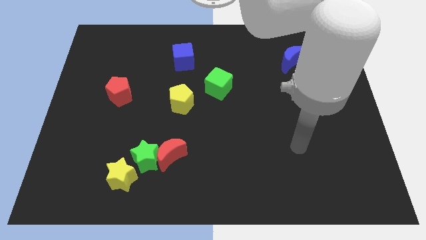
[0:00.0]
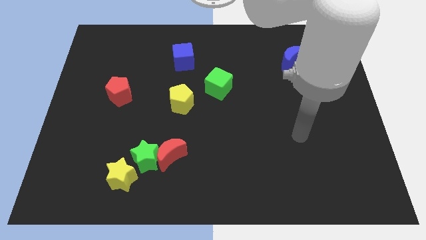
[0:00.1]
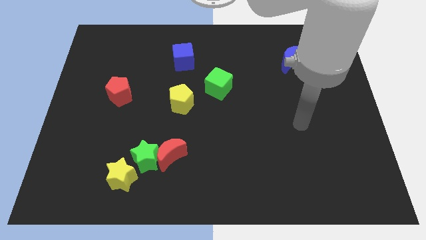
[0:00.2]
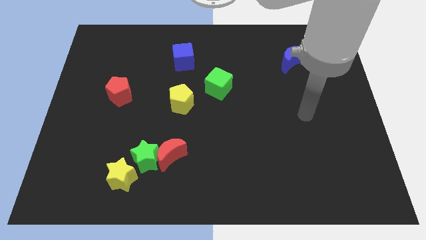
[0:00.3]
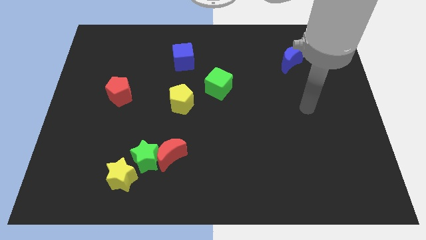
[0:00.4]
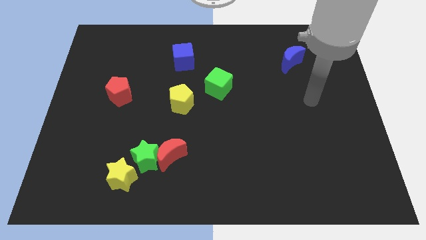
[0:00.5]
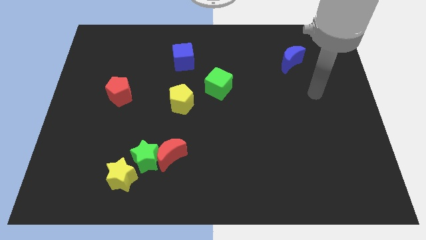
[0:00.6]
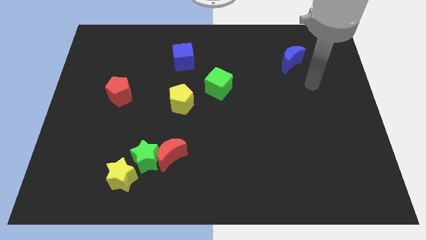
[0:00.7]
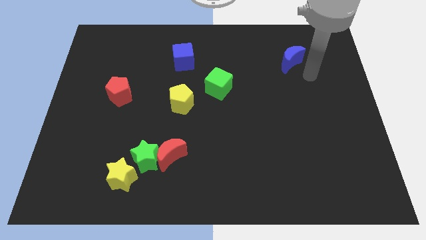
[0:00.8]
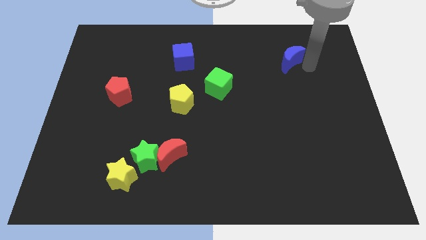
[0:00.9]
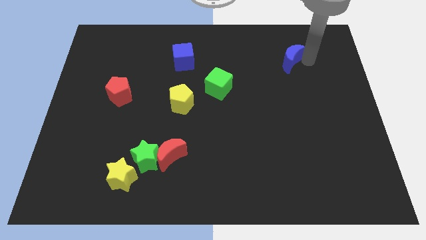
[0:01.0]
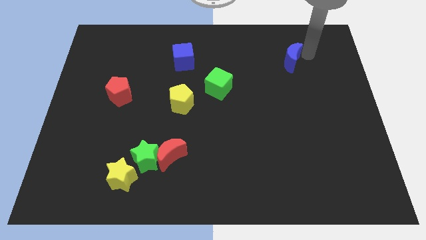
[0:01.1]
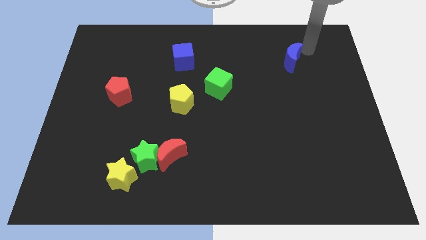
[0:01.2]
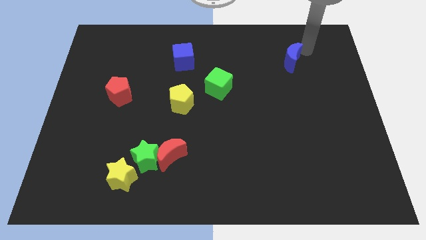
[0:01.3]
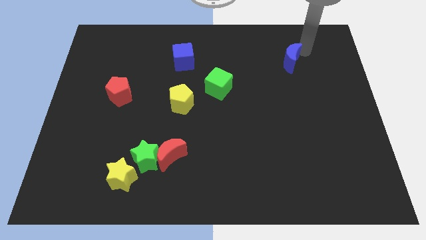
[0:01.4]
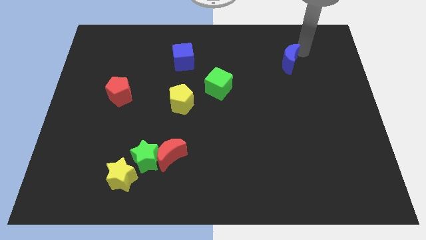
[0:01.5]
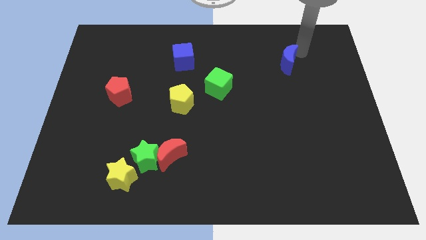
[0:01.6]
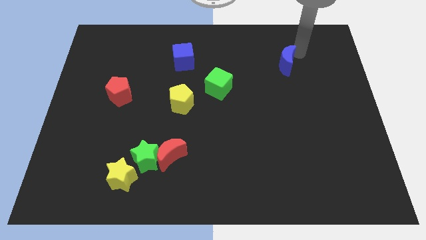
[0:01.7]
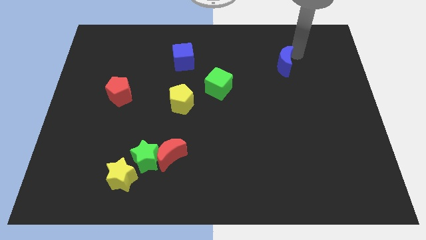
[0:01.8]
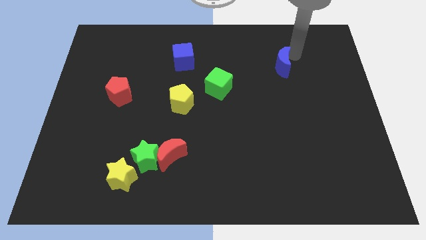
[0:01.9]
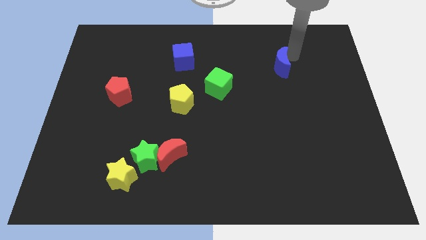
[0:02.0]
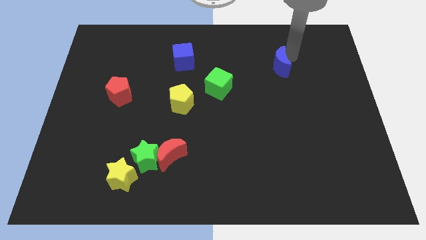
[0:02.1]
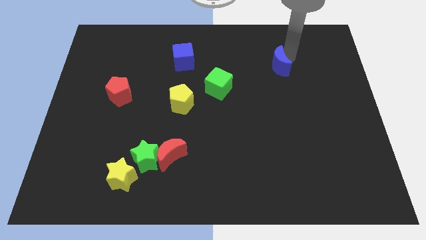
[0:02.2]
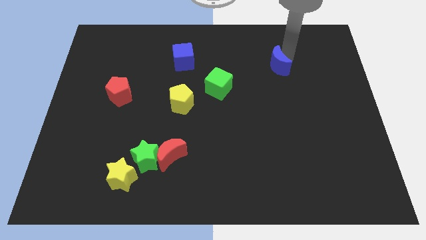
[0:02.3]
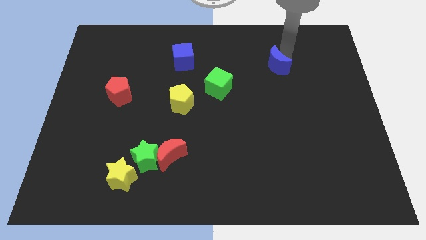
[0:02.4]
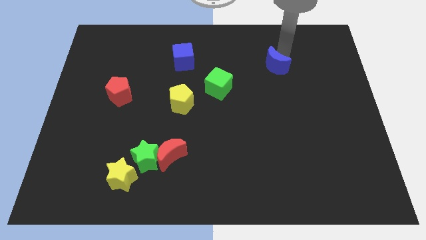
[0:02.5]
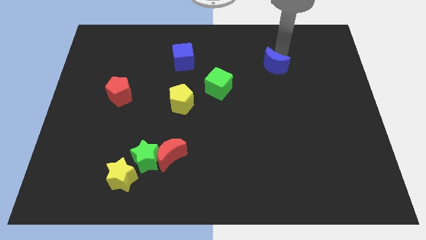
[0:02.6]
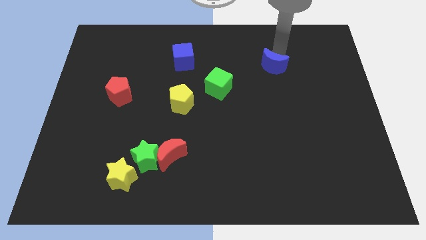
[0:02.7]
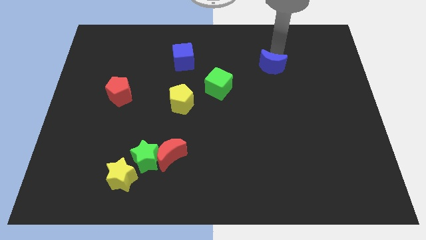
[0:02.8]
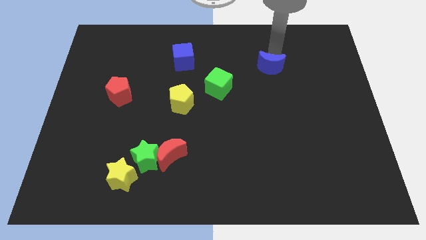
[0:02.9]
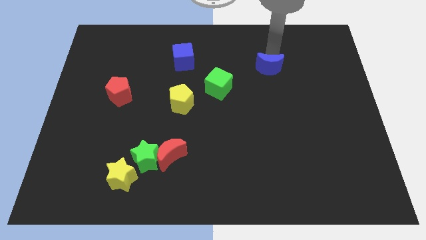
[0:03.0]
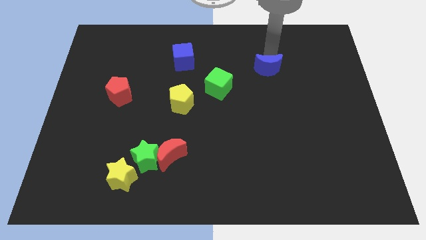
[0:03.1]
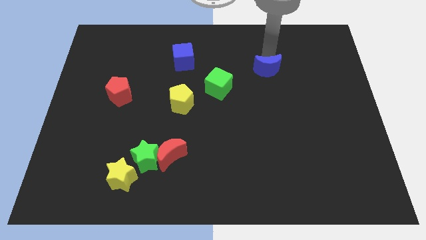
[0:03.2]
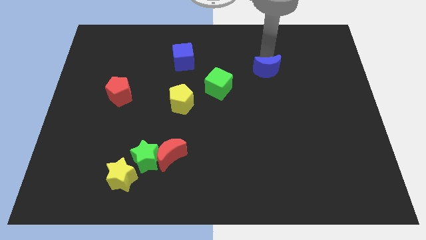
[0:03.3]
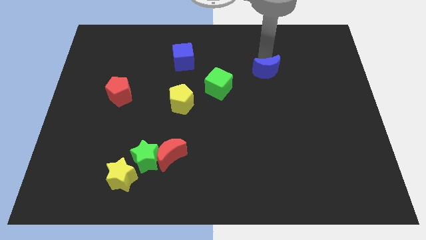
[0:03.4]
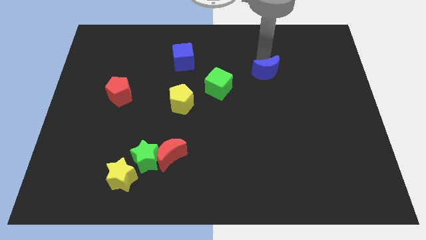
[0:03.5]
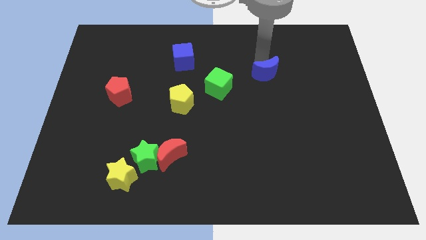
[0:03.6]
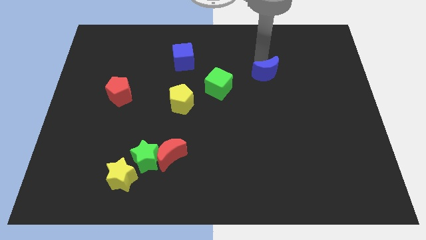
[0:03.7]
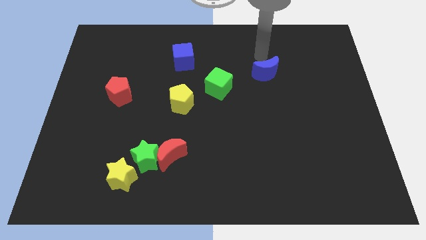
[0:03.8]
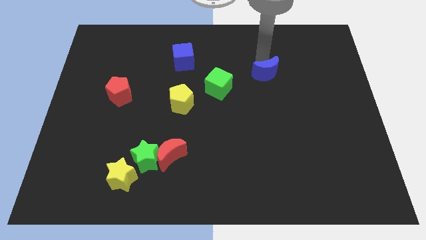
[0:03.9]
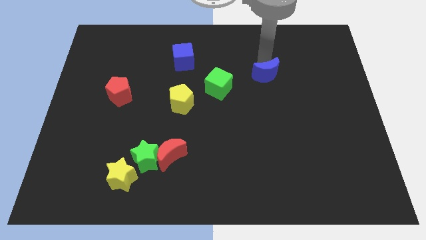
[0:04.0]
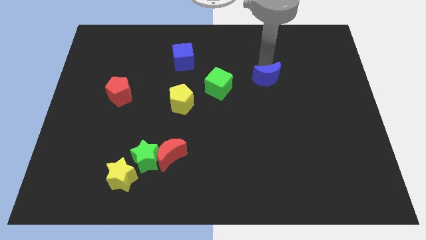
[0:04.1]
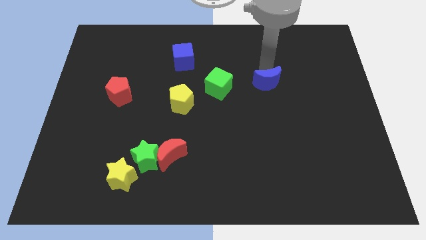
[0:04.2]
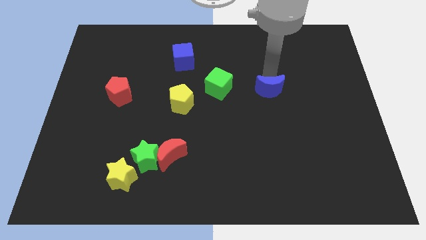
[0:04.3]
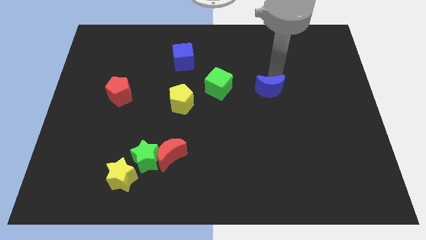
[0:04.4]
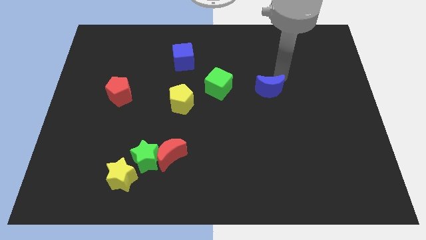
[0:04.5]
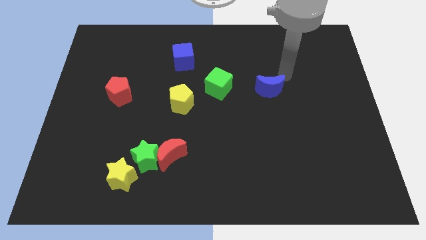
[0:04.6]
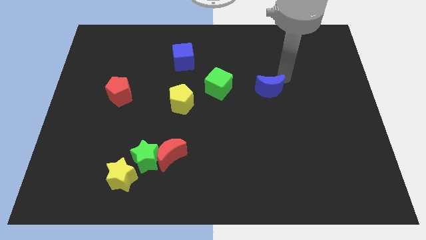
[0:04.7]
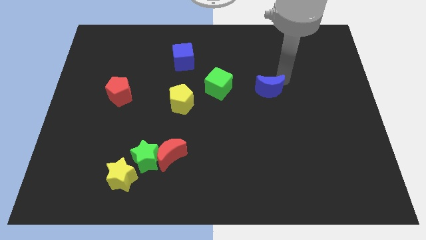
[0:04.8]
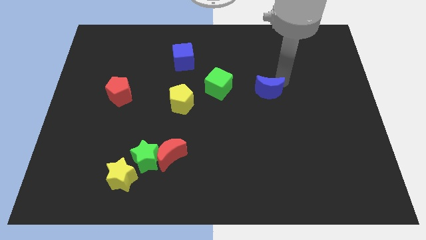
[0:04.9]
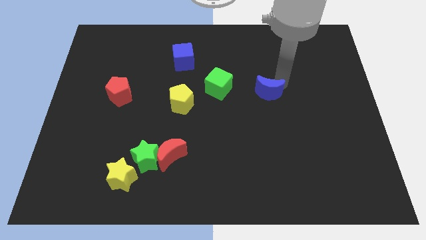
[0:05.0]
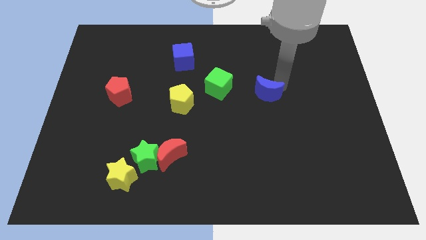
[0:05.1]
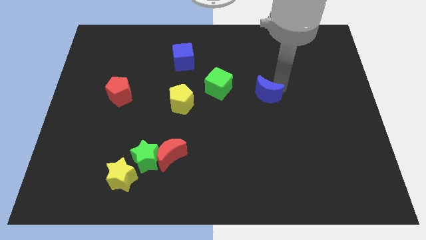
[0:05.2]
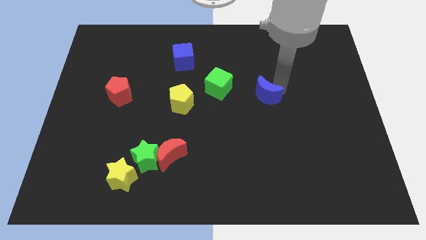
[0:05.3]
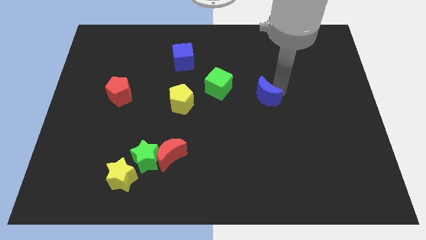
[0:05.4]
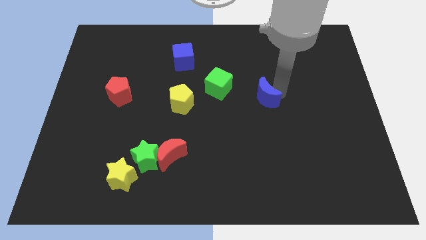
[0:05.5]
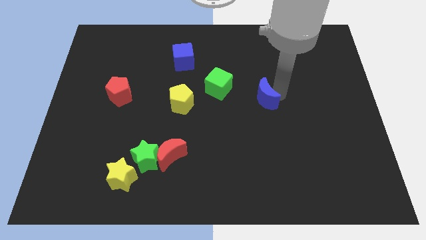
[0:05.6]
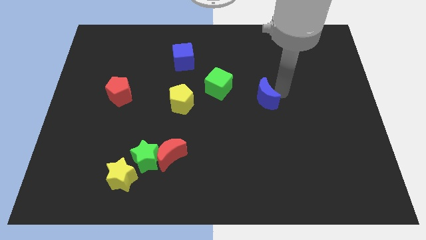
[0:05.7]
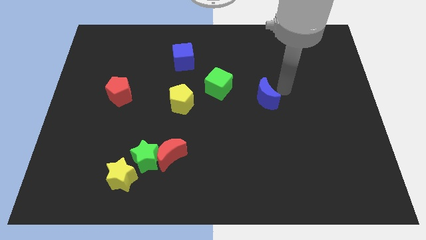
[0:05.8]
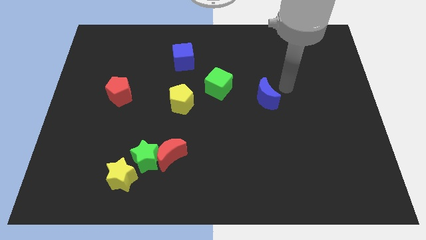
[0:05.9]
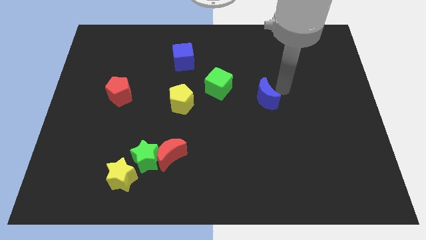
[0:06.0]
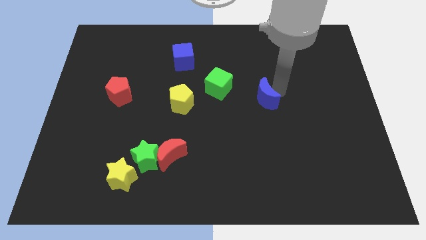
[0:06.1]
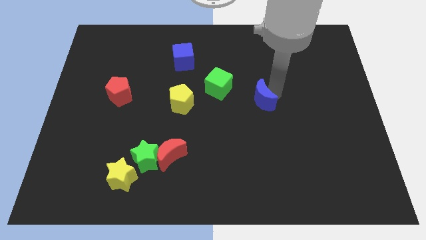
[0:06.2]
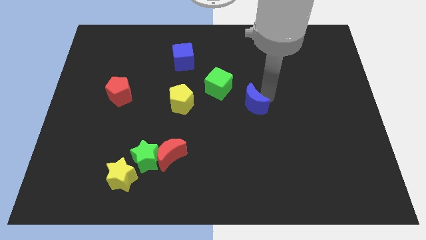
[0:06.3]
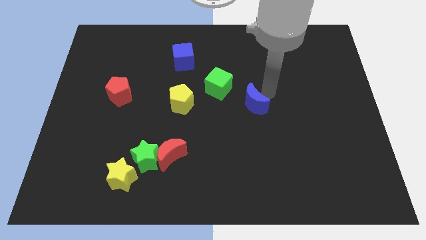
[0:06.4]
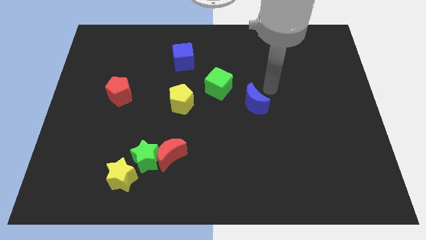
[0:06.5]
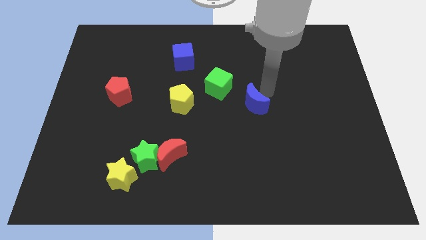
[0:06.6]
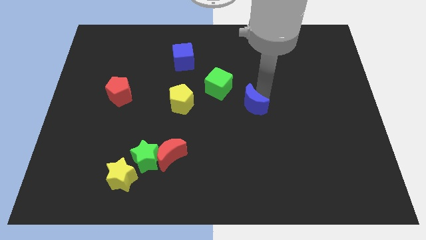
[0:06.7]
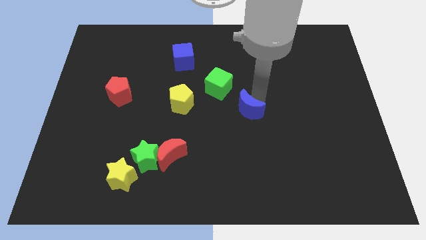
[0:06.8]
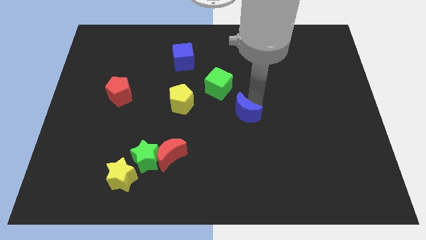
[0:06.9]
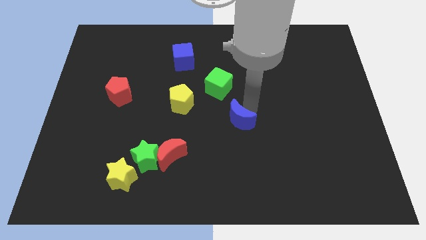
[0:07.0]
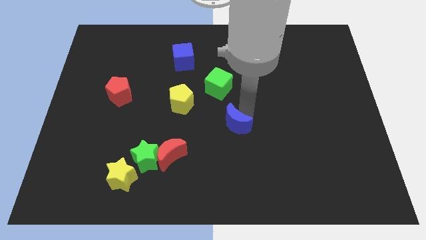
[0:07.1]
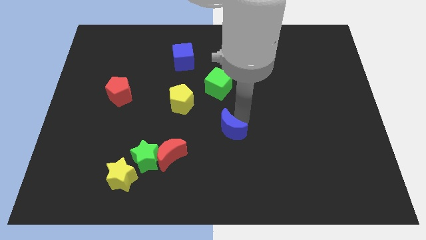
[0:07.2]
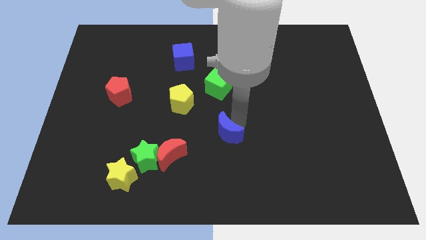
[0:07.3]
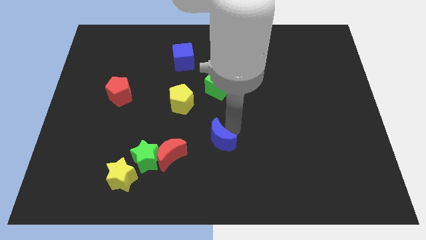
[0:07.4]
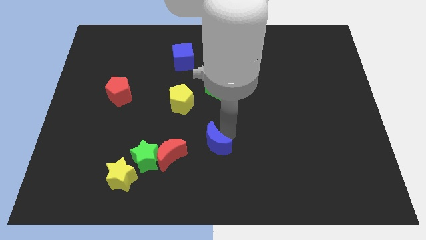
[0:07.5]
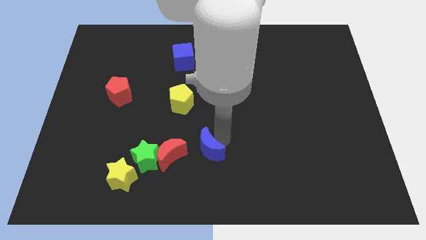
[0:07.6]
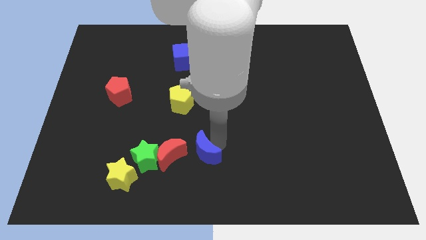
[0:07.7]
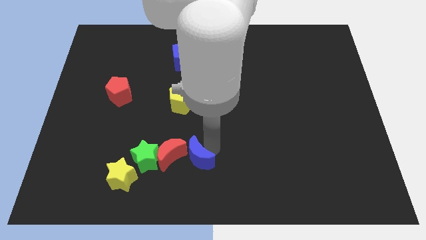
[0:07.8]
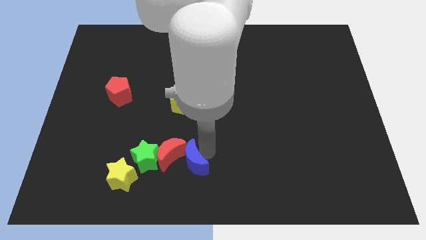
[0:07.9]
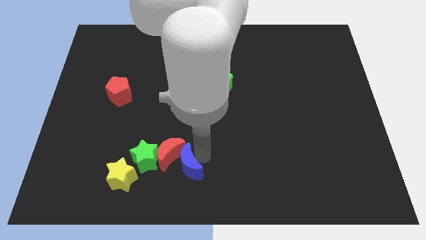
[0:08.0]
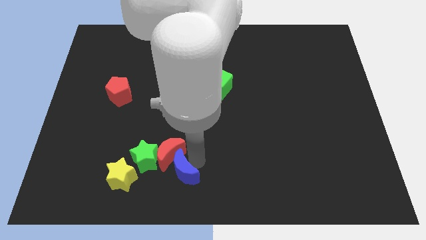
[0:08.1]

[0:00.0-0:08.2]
move the blue moon to the bottom right side of the green star

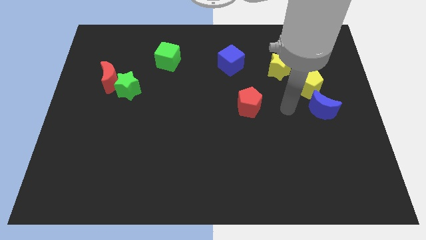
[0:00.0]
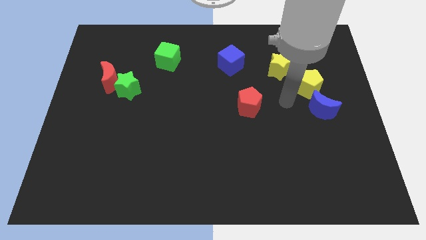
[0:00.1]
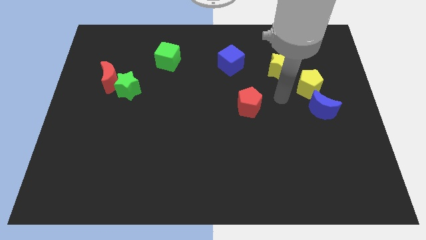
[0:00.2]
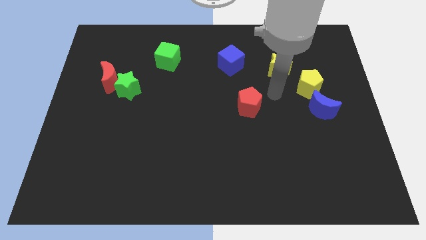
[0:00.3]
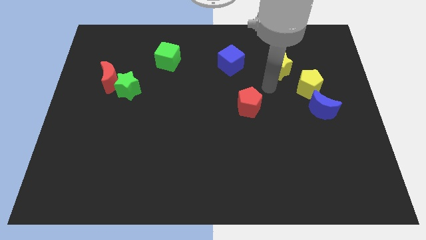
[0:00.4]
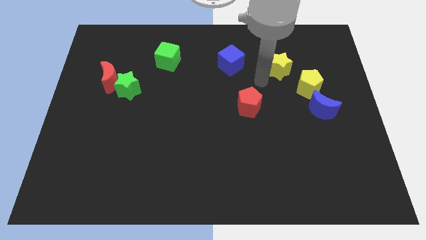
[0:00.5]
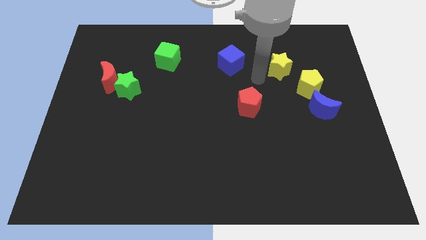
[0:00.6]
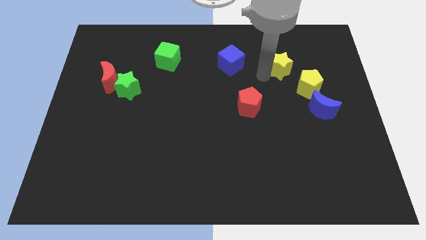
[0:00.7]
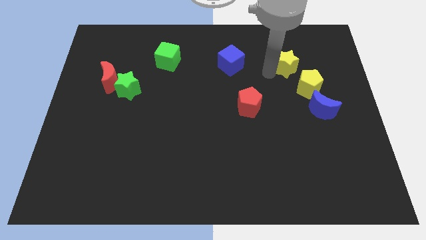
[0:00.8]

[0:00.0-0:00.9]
push the yellow star to the top side of the yellow pentagon
